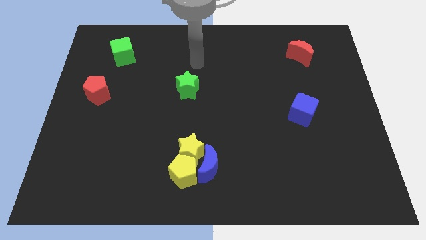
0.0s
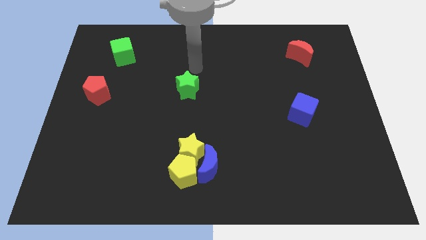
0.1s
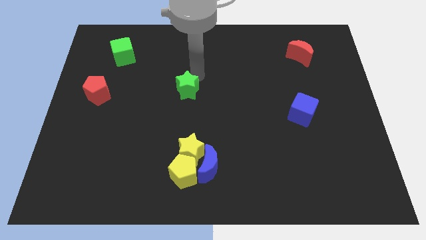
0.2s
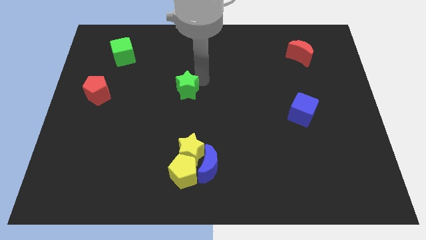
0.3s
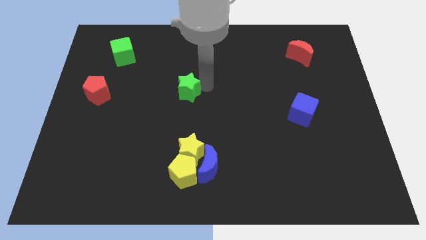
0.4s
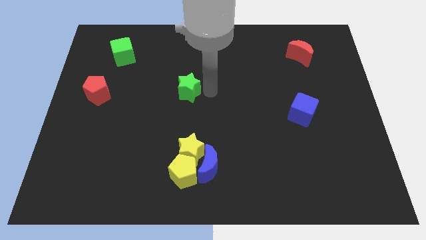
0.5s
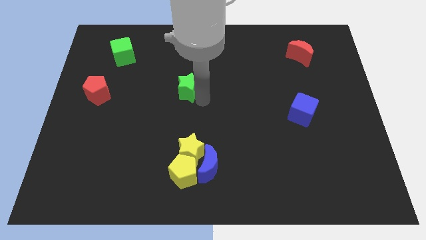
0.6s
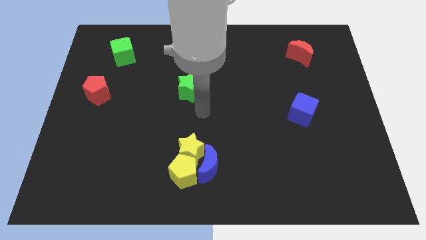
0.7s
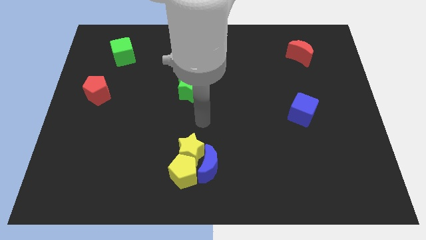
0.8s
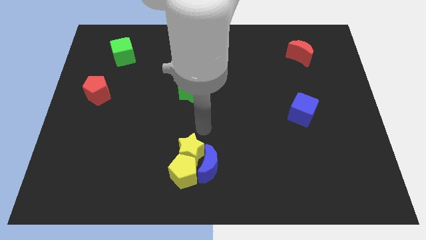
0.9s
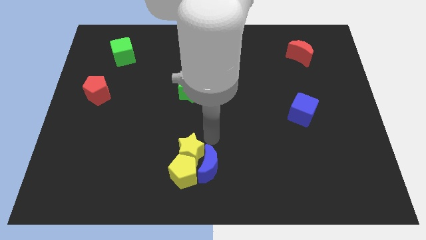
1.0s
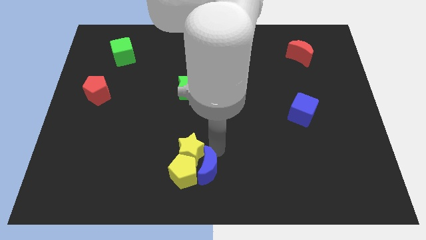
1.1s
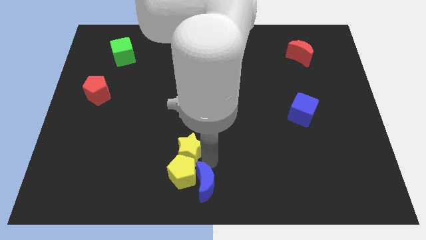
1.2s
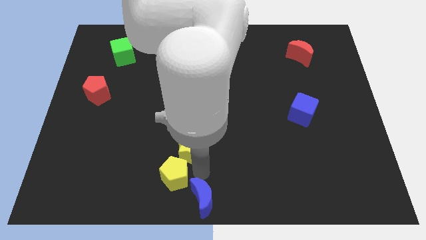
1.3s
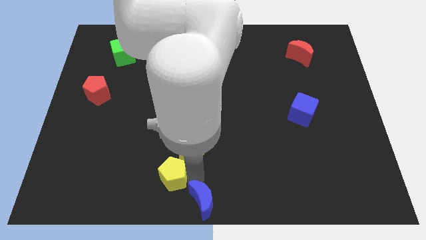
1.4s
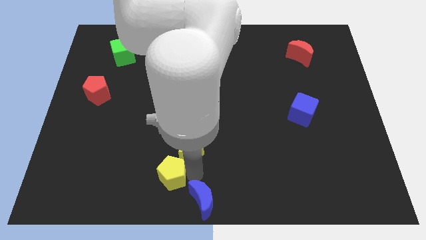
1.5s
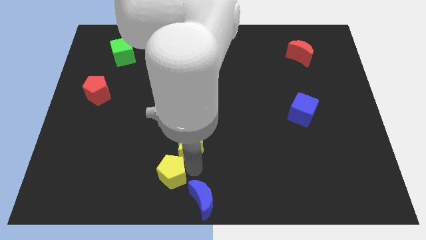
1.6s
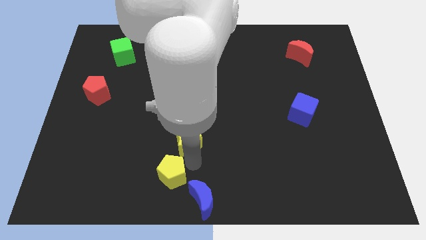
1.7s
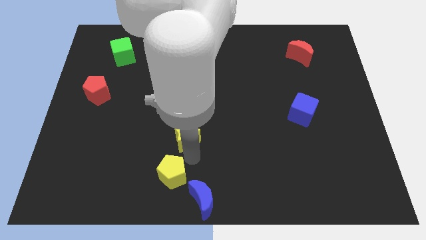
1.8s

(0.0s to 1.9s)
pull the yellow star apart from the yellow pentagon and blue moon

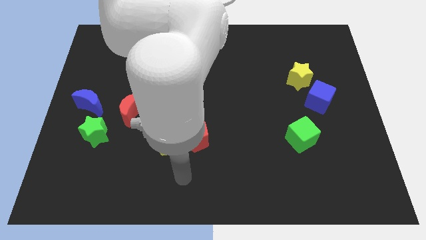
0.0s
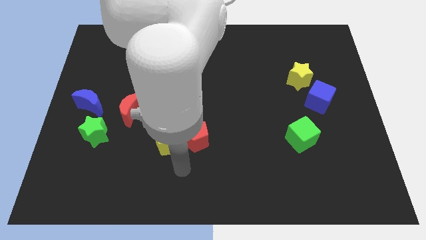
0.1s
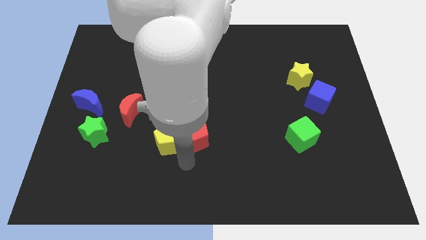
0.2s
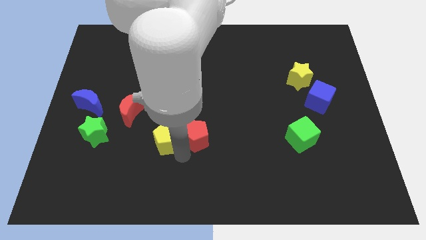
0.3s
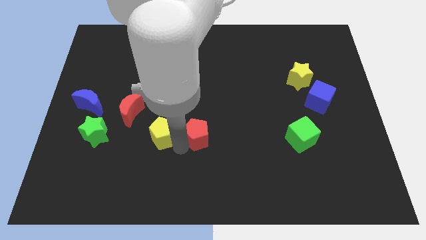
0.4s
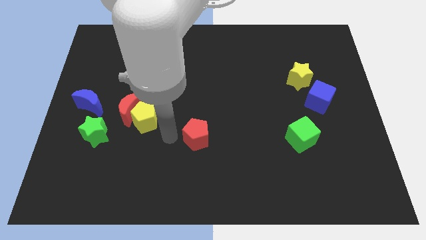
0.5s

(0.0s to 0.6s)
move the red pentagon away from the yellow pentagon

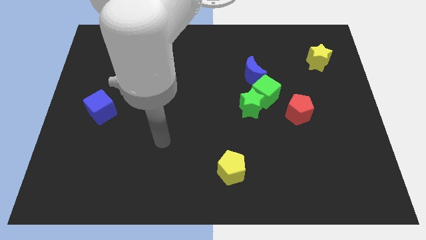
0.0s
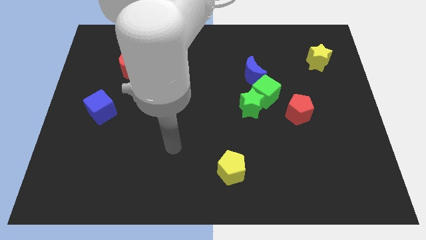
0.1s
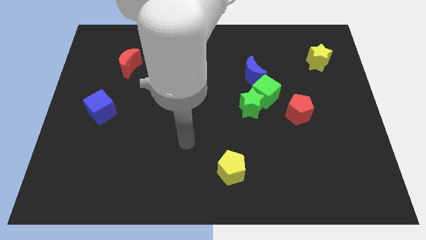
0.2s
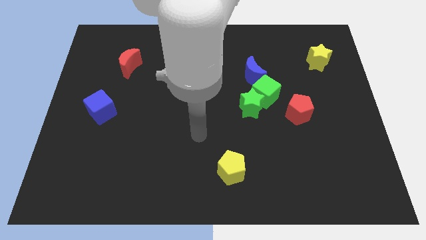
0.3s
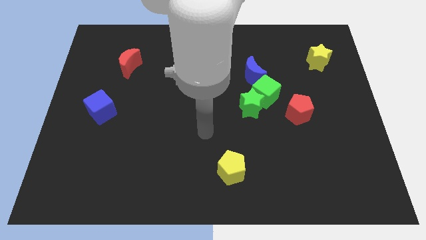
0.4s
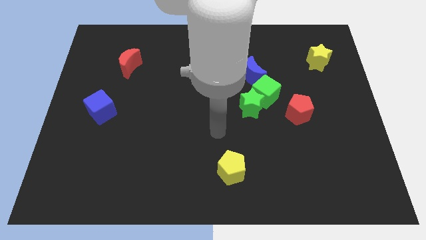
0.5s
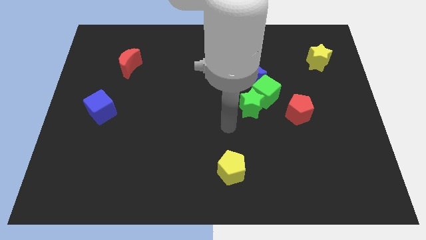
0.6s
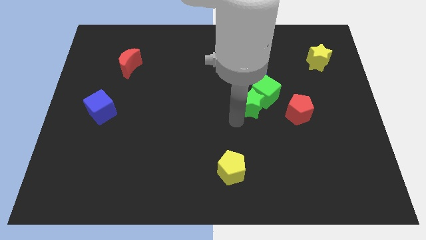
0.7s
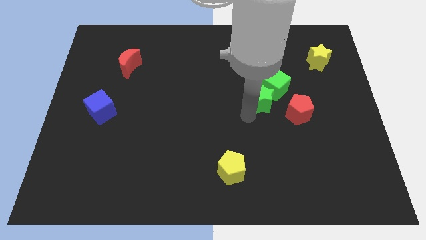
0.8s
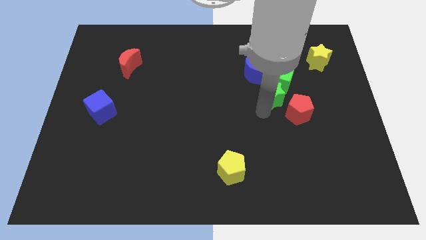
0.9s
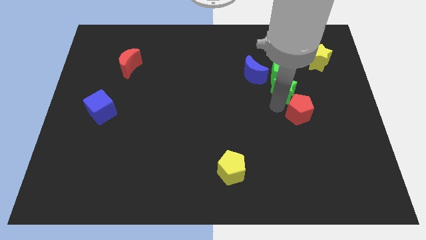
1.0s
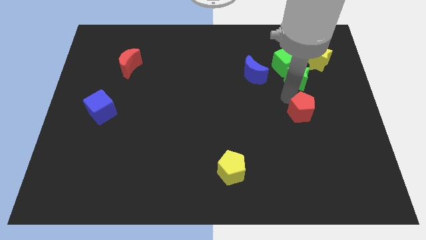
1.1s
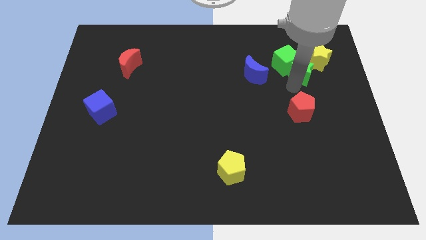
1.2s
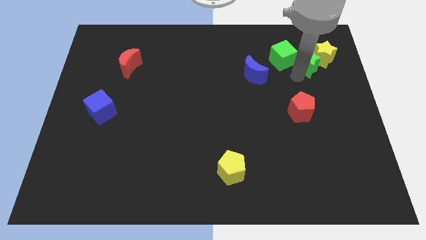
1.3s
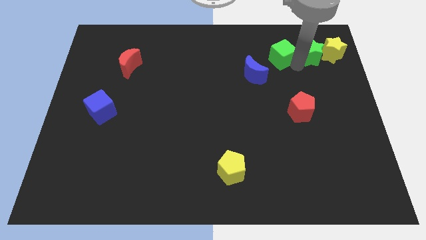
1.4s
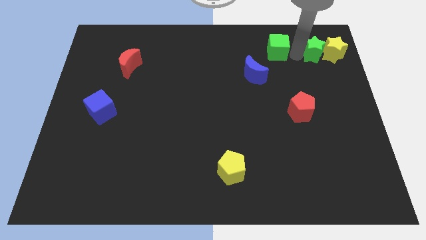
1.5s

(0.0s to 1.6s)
separate the green cube from the clump

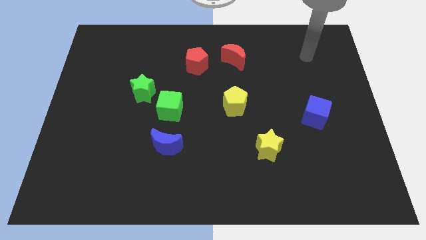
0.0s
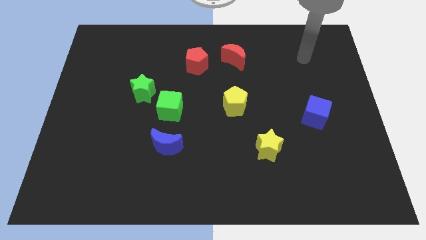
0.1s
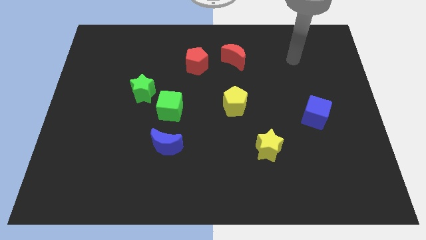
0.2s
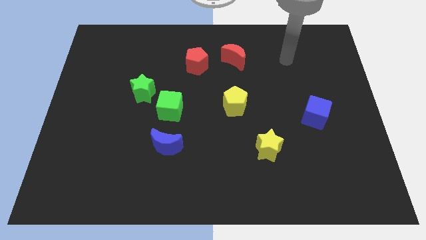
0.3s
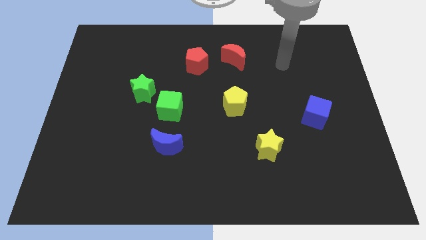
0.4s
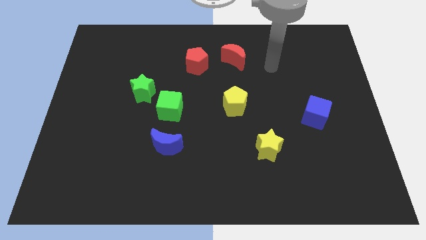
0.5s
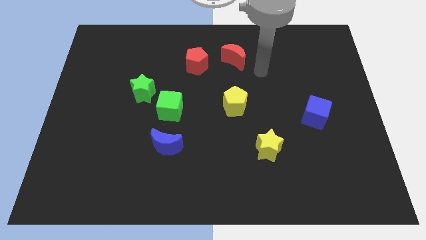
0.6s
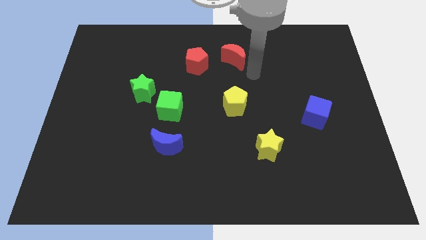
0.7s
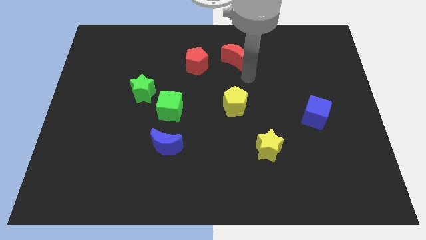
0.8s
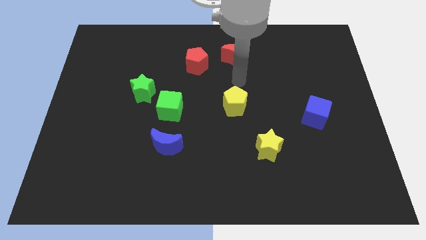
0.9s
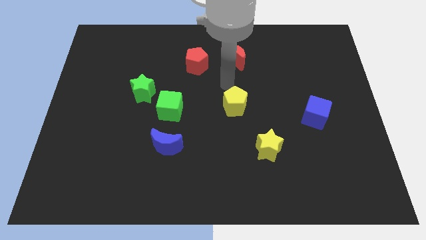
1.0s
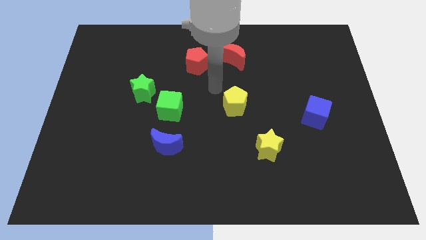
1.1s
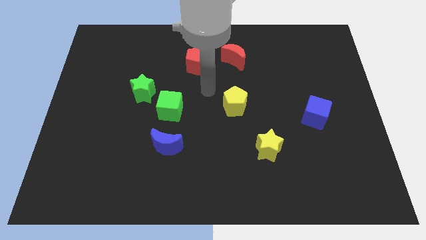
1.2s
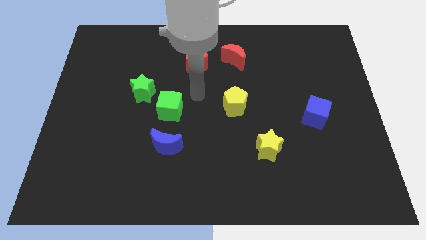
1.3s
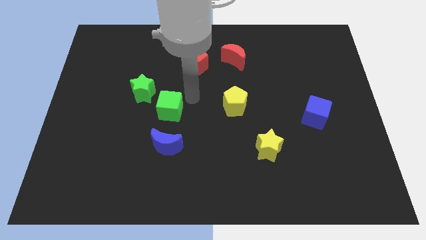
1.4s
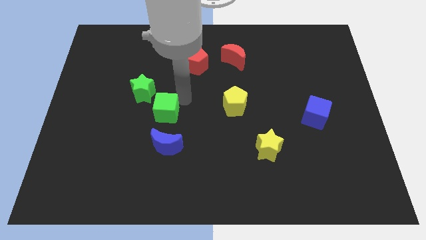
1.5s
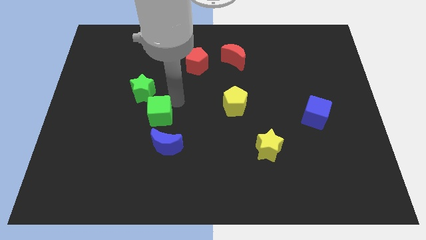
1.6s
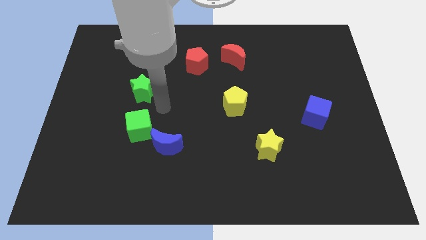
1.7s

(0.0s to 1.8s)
pull the green star apart from the green cube

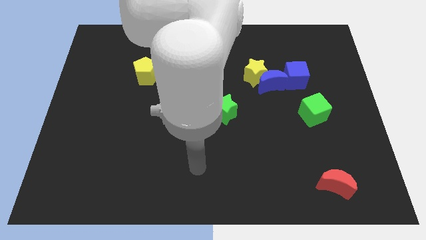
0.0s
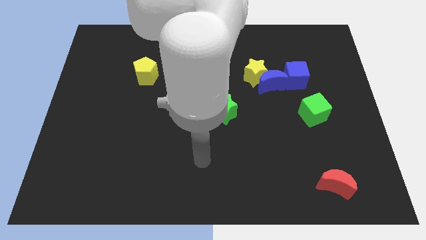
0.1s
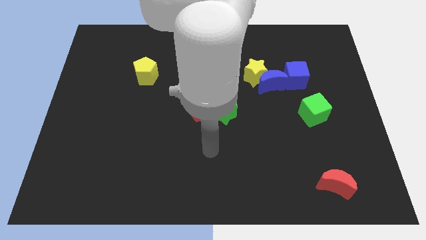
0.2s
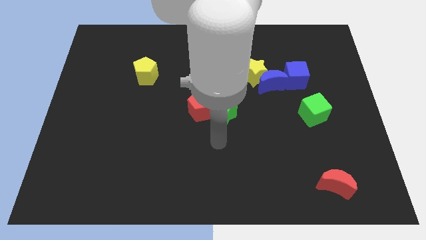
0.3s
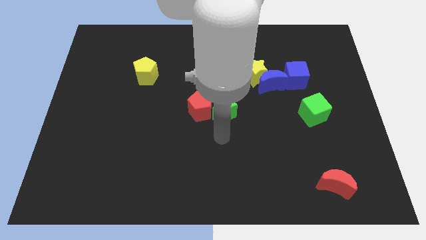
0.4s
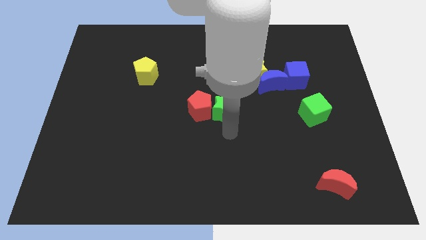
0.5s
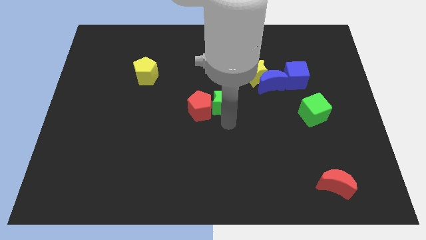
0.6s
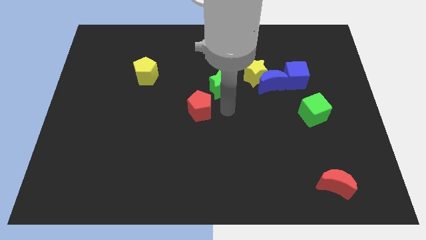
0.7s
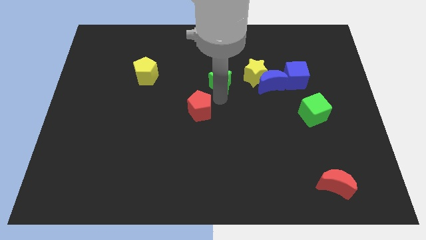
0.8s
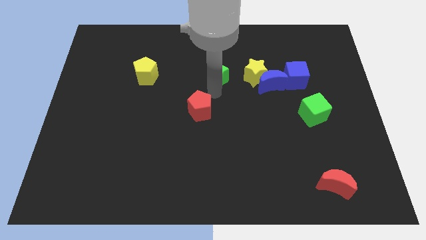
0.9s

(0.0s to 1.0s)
pull the red pentagon apart from the green star

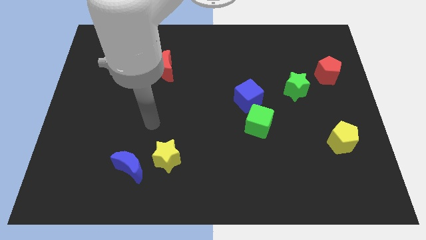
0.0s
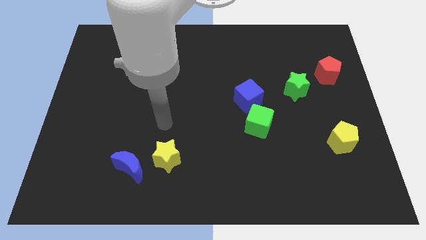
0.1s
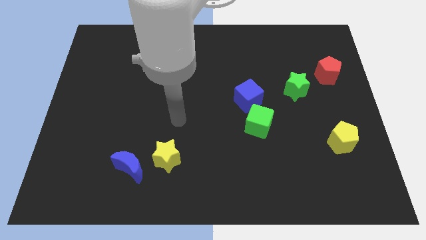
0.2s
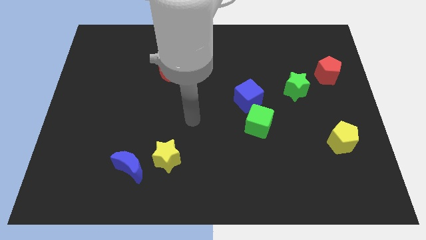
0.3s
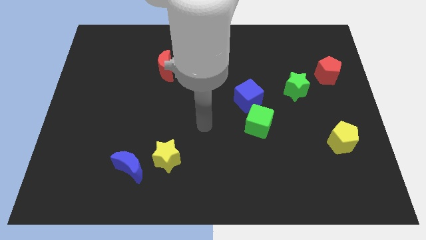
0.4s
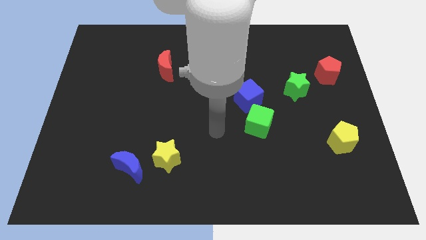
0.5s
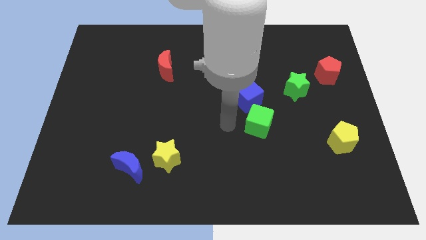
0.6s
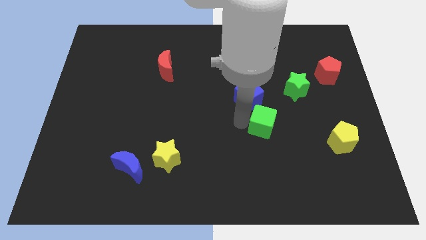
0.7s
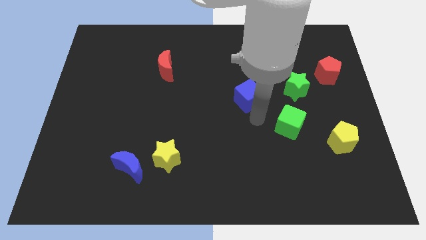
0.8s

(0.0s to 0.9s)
separate the blue cube from the green cube

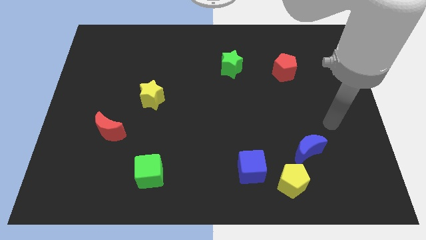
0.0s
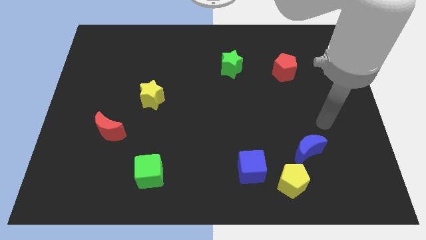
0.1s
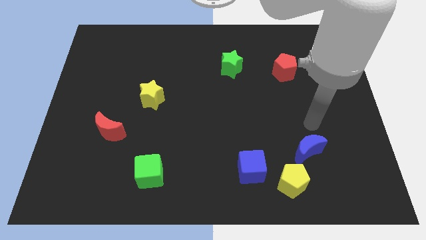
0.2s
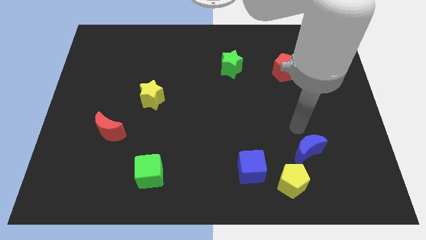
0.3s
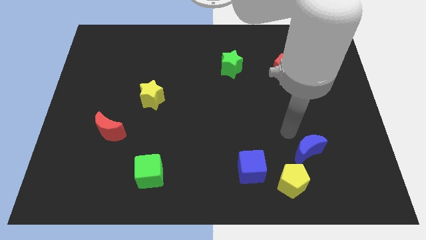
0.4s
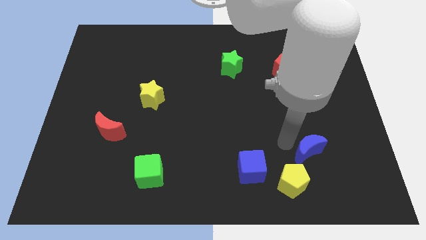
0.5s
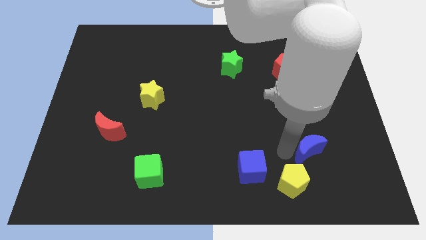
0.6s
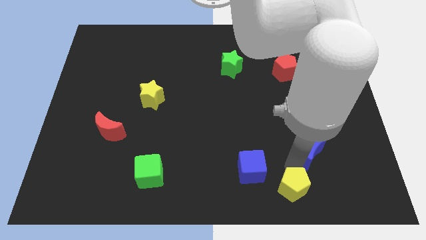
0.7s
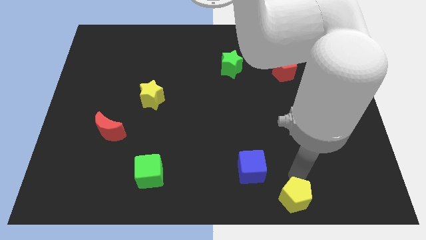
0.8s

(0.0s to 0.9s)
pull the blue moon apart from the yellow pentagon

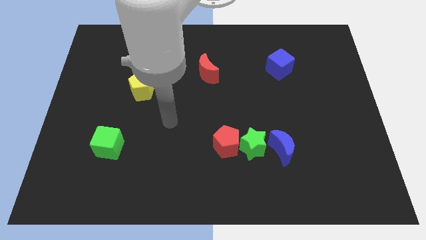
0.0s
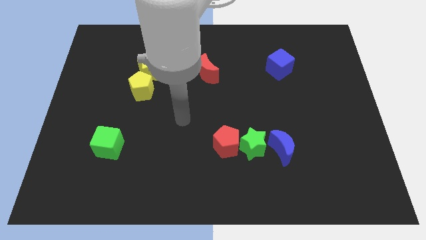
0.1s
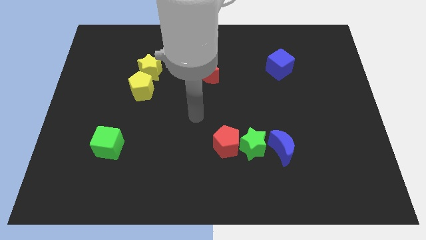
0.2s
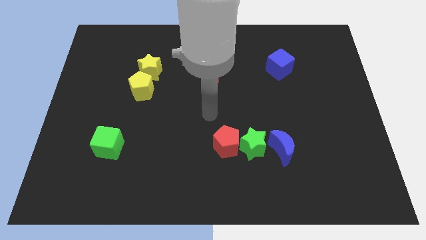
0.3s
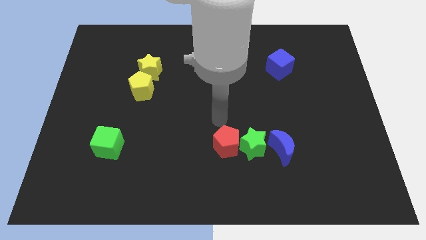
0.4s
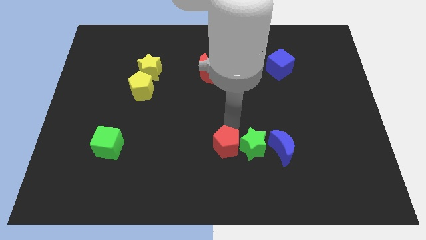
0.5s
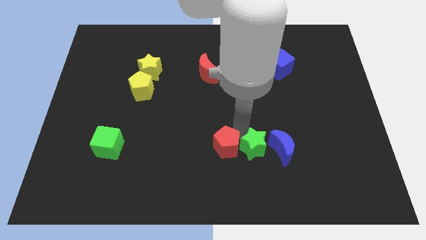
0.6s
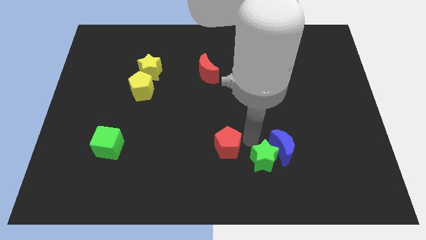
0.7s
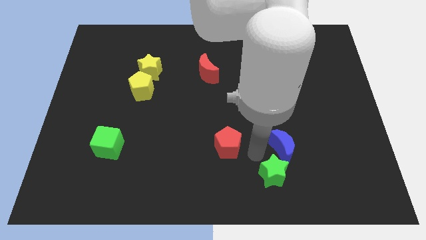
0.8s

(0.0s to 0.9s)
separate the red pentagon from the green star
